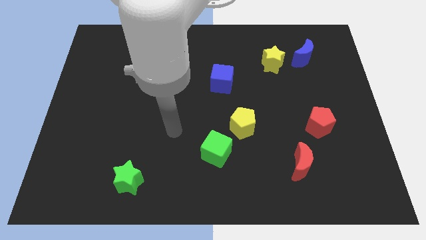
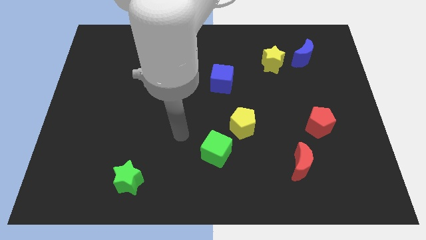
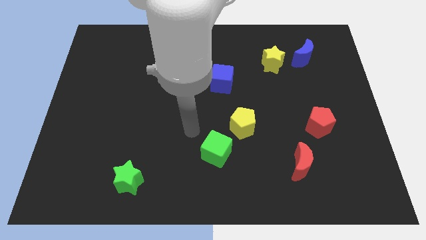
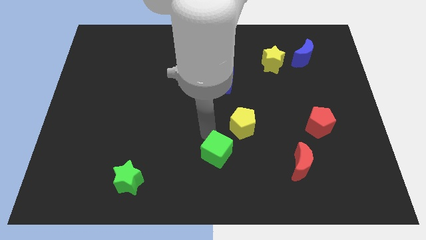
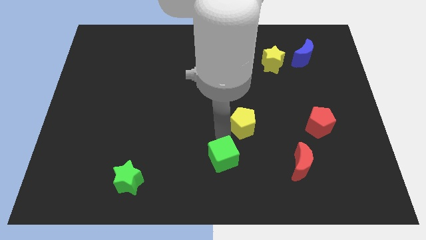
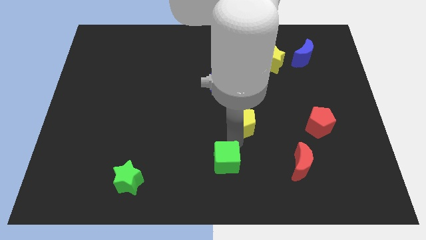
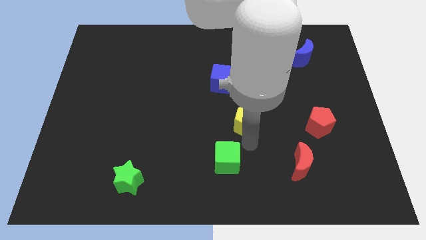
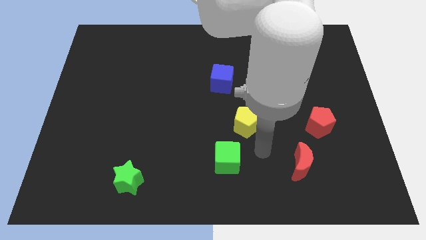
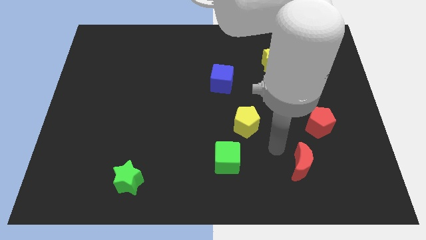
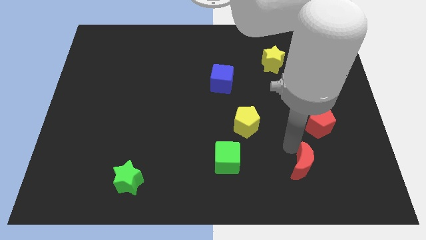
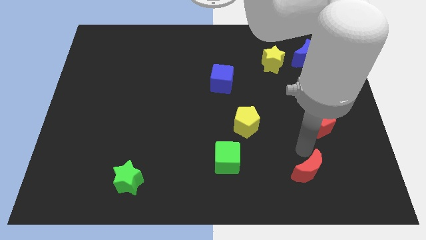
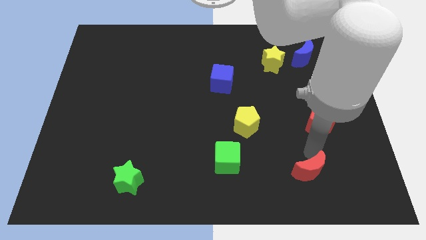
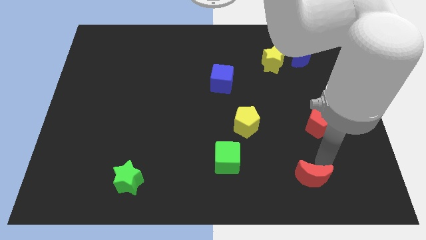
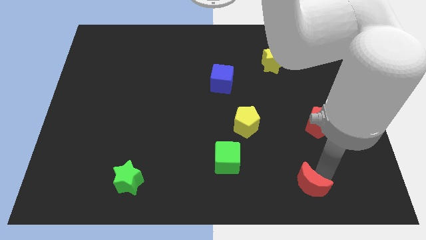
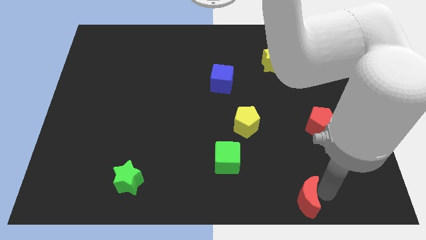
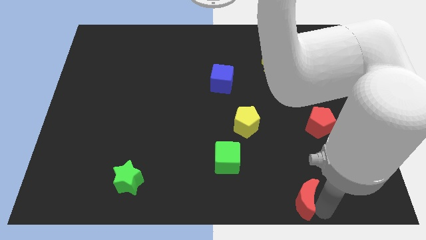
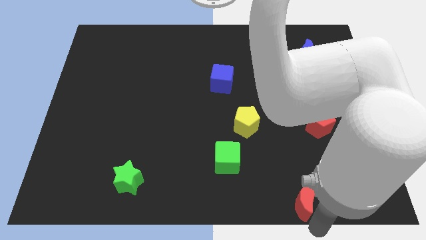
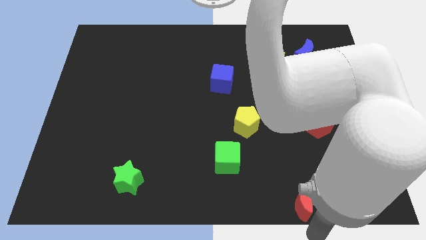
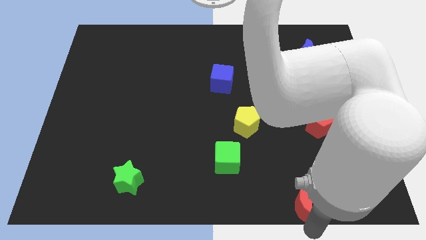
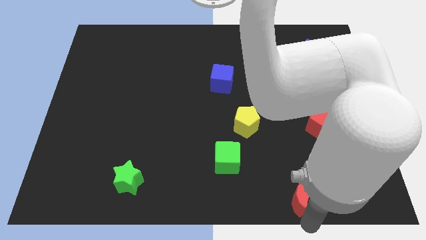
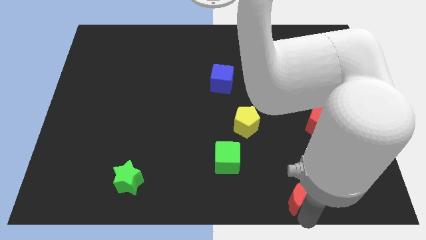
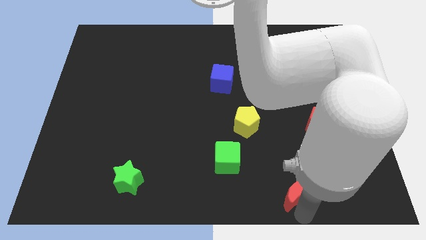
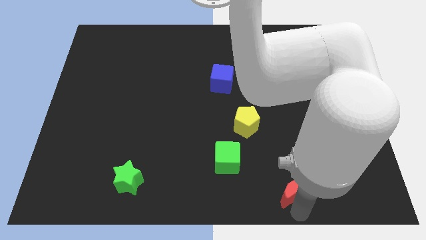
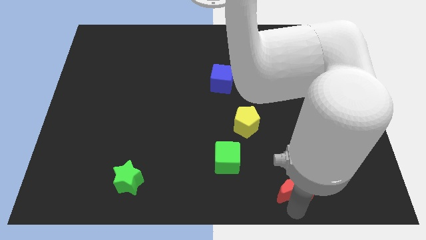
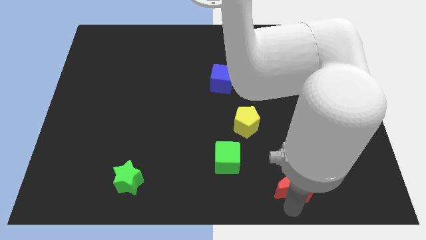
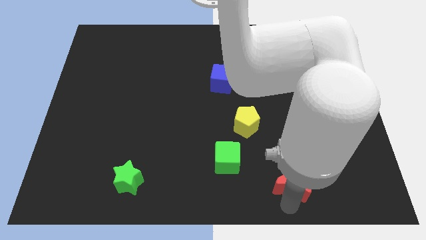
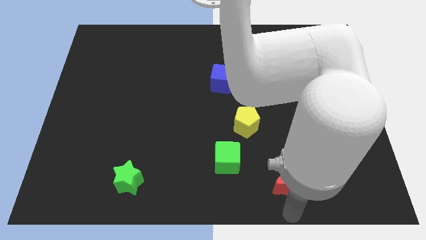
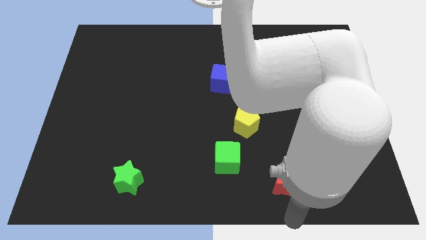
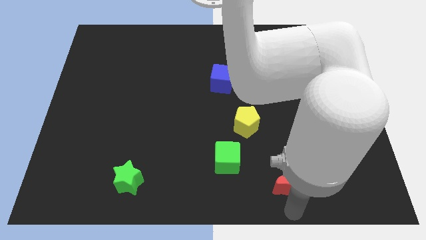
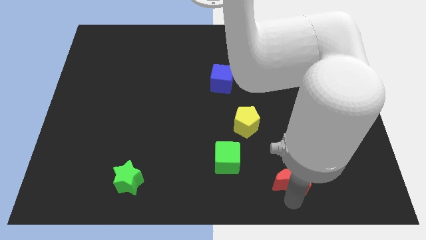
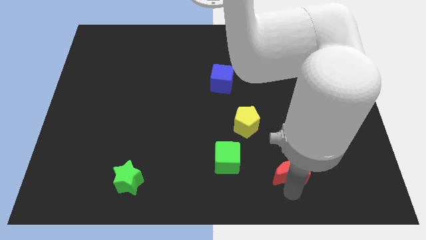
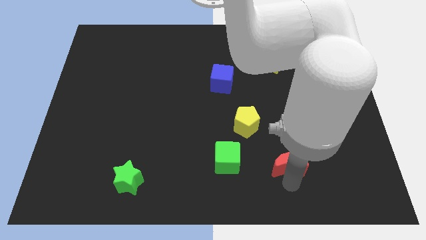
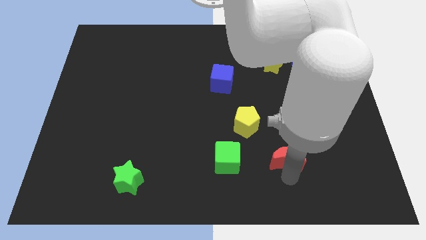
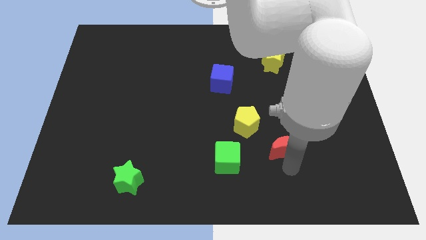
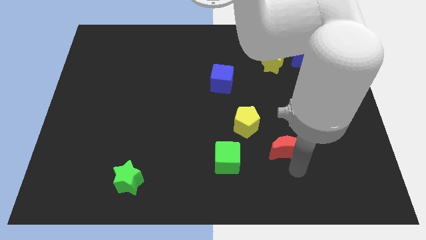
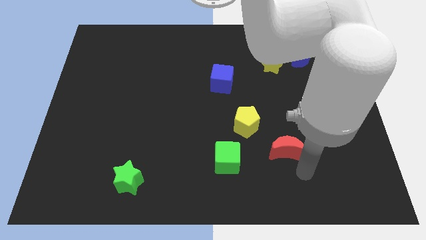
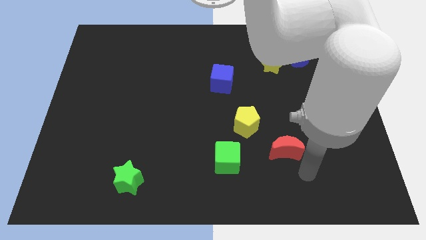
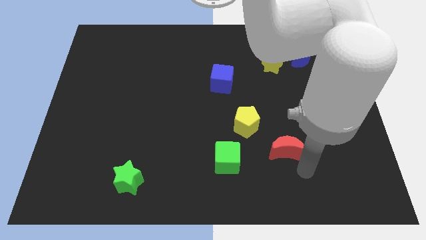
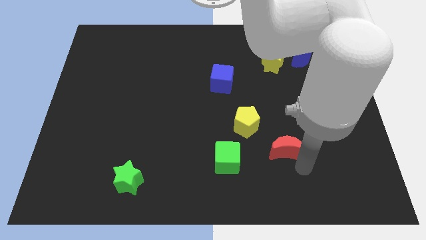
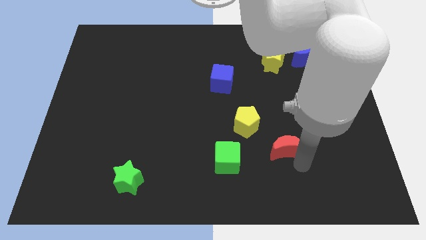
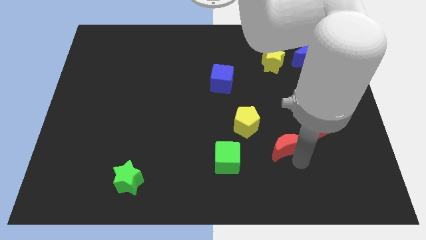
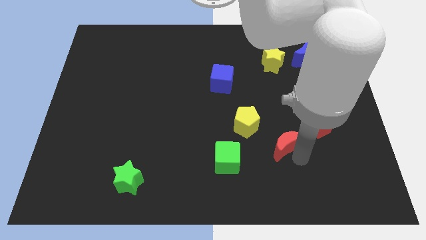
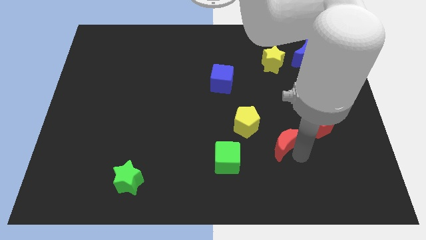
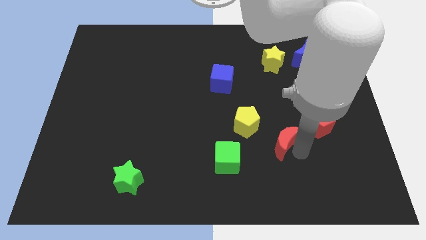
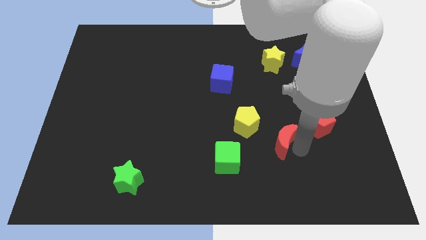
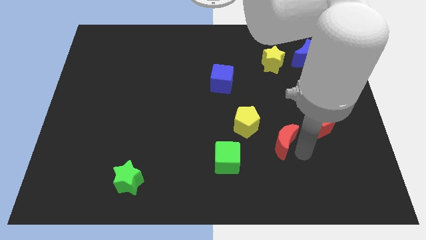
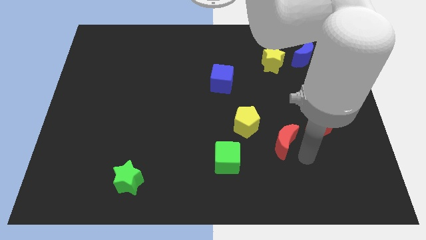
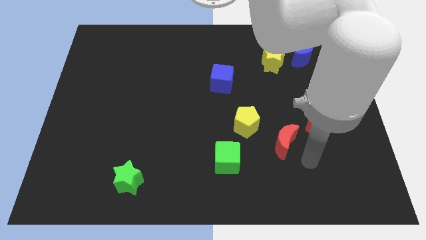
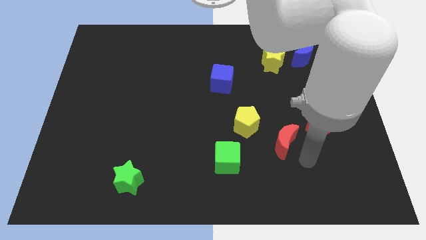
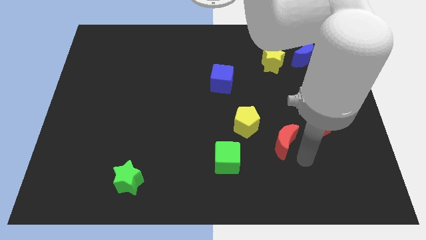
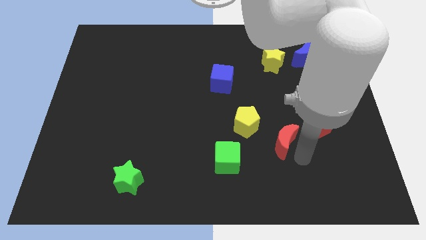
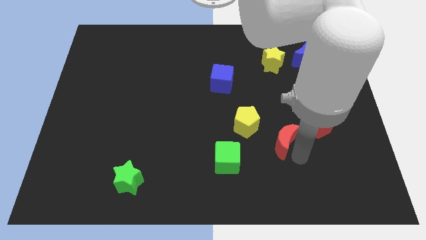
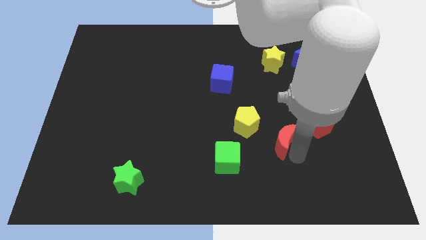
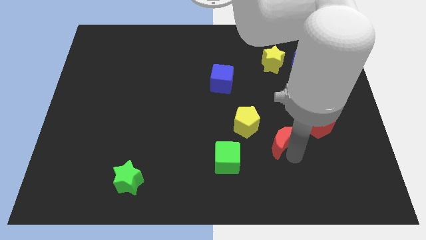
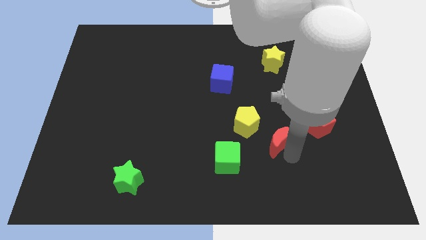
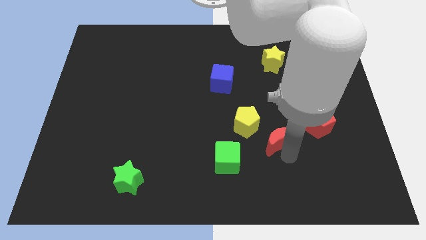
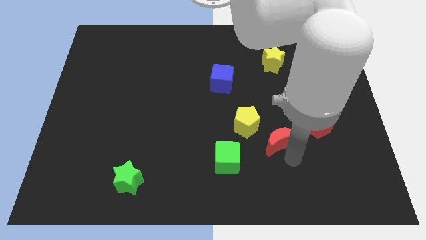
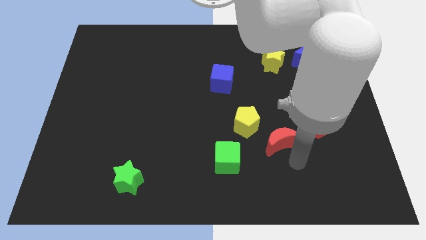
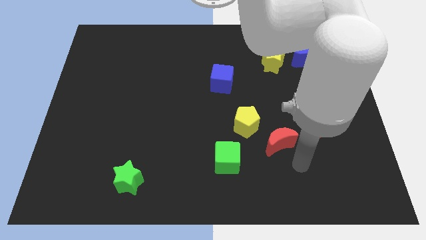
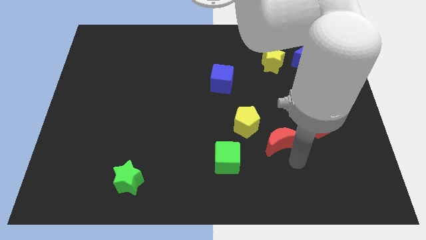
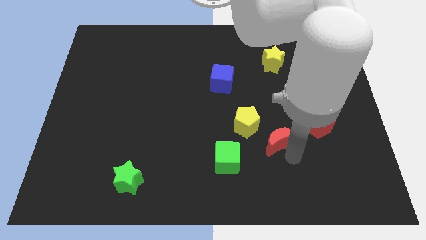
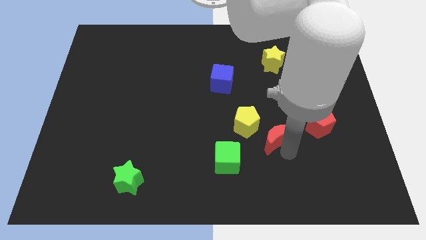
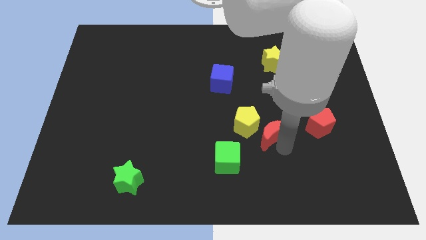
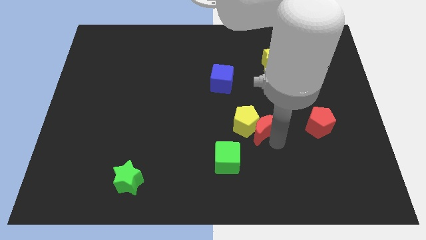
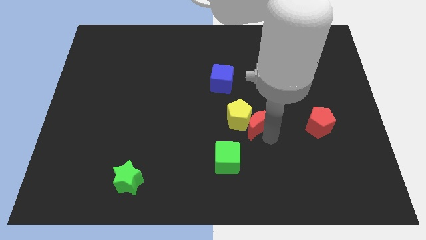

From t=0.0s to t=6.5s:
put the red moon to the middle of the board
